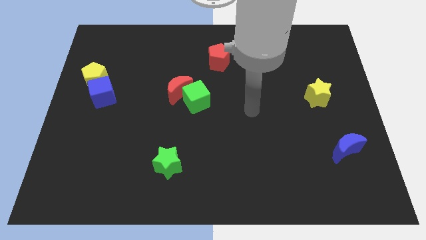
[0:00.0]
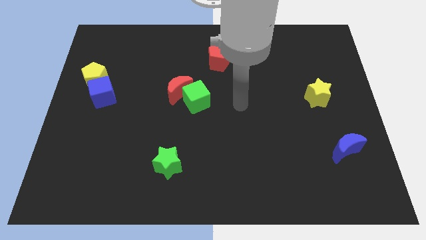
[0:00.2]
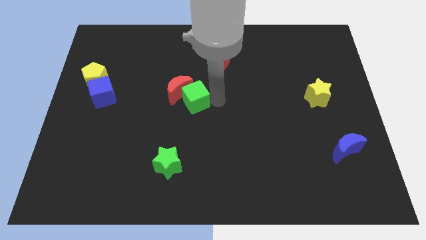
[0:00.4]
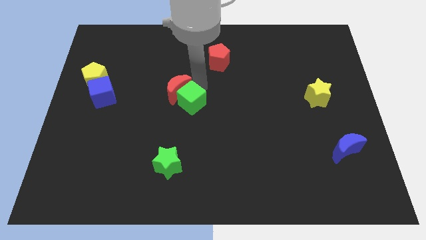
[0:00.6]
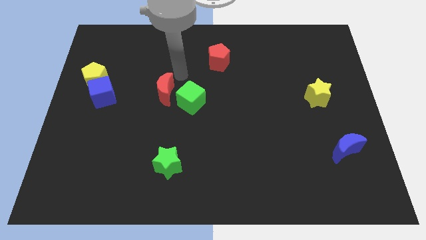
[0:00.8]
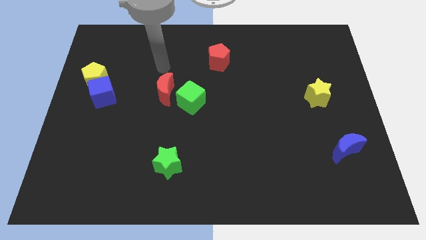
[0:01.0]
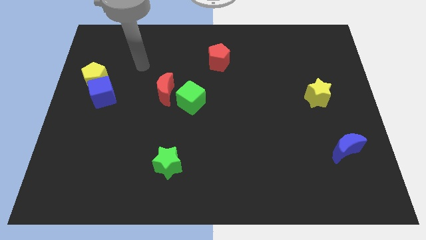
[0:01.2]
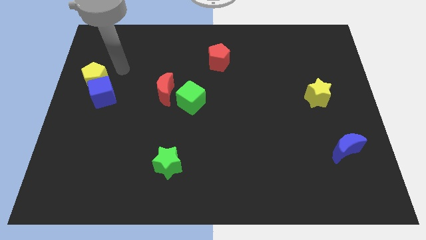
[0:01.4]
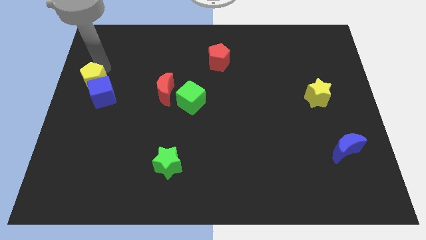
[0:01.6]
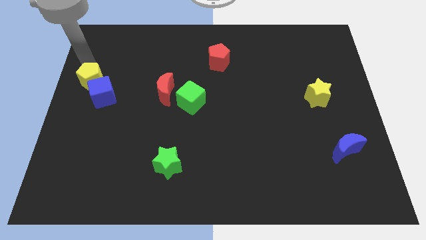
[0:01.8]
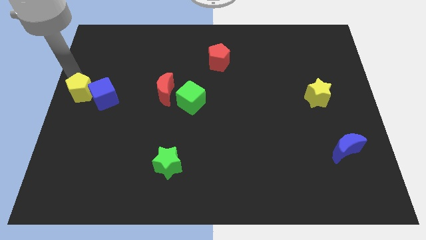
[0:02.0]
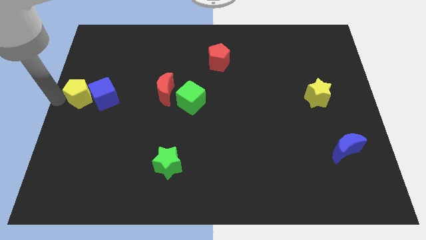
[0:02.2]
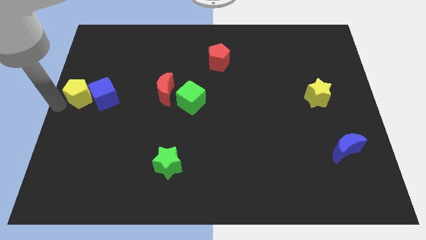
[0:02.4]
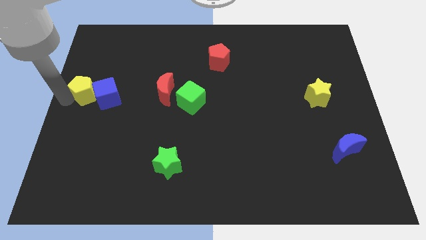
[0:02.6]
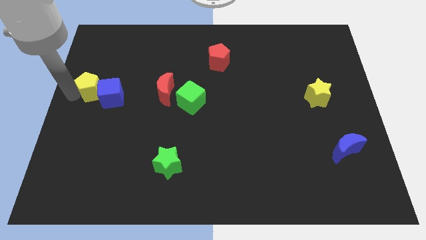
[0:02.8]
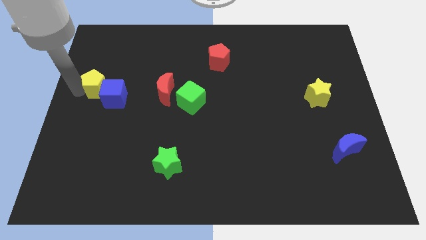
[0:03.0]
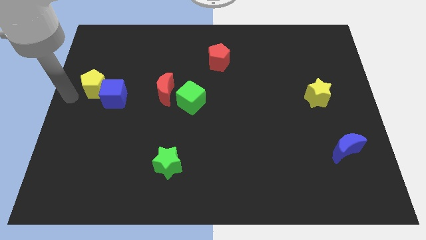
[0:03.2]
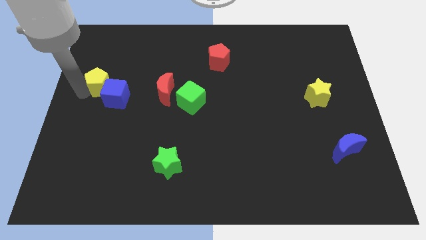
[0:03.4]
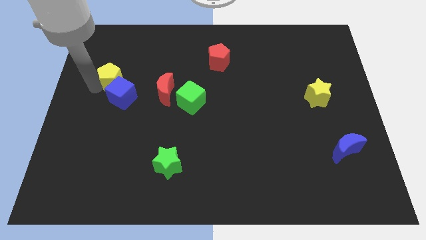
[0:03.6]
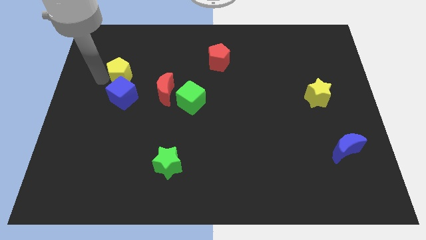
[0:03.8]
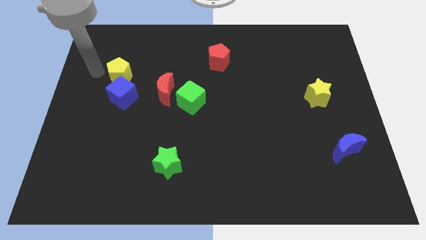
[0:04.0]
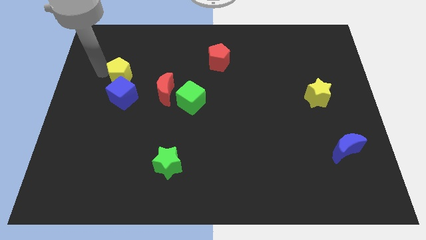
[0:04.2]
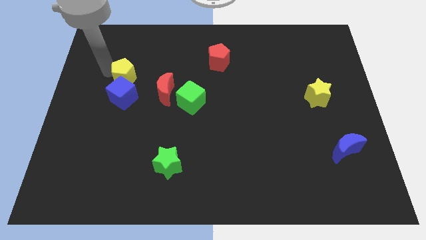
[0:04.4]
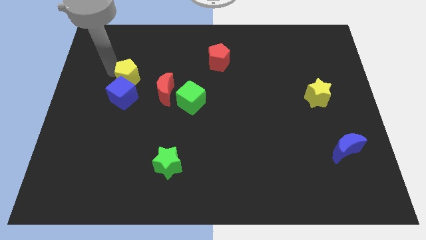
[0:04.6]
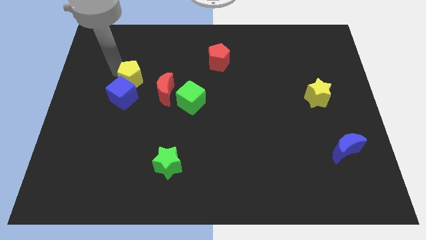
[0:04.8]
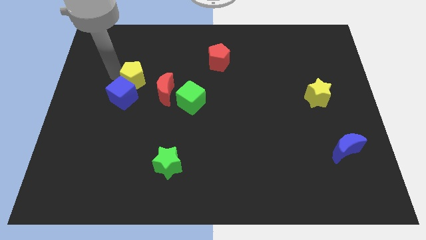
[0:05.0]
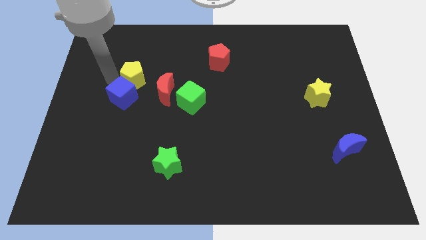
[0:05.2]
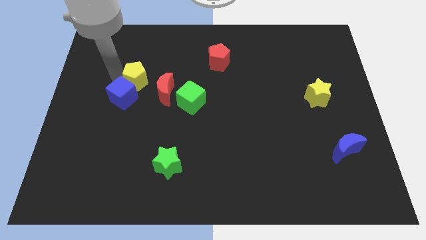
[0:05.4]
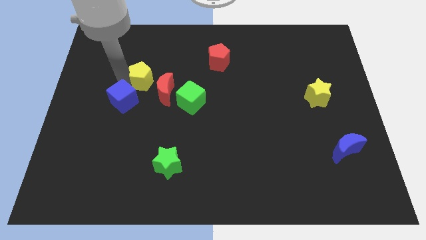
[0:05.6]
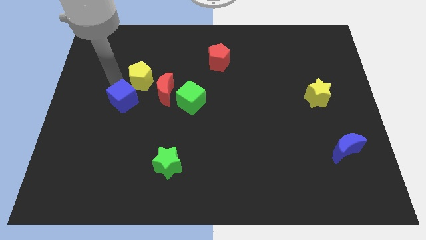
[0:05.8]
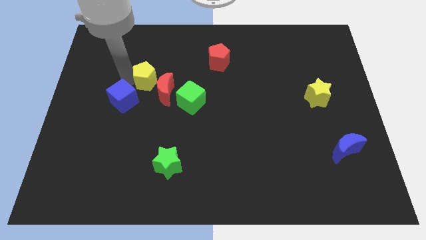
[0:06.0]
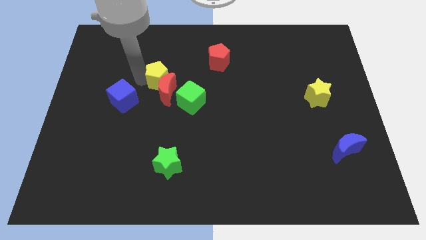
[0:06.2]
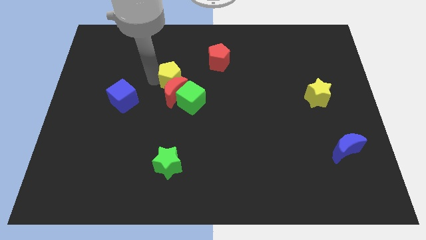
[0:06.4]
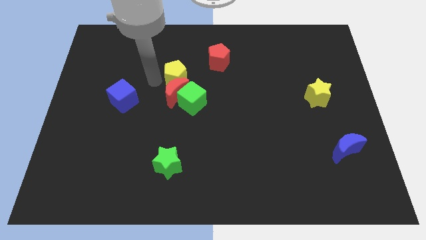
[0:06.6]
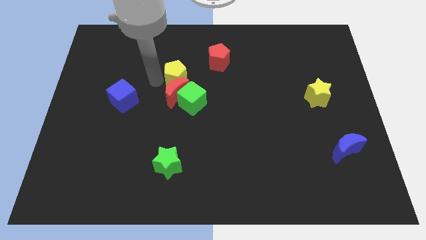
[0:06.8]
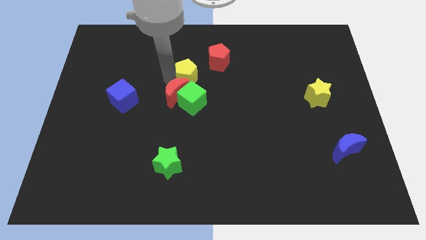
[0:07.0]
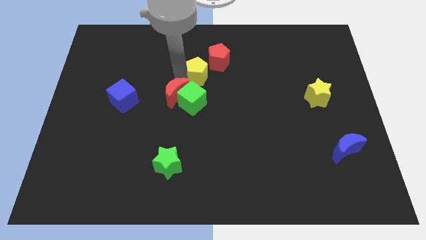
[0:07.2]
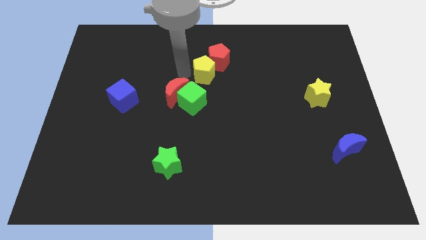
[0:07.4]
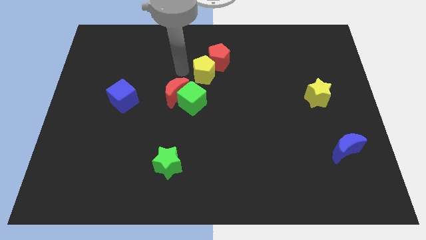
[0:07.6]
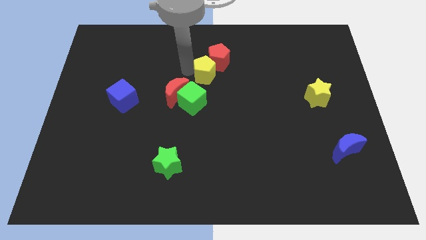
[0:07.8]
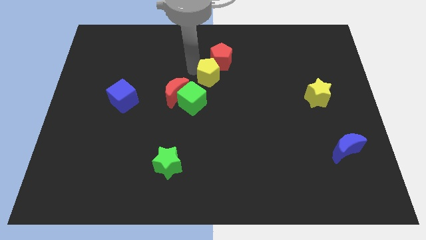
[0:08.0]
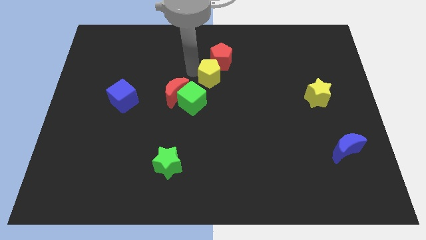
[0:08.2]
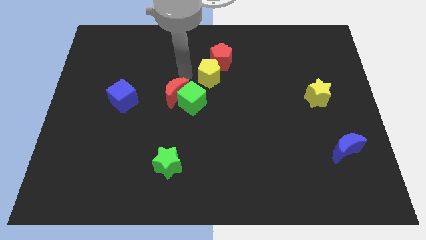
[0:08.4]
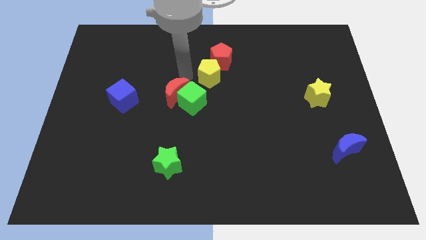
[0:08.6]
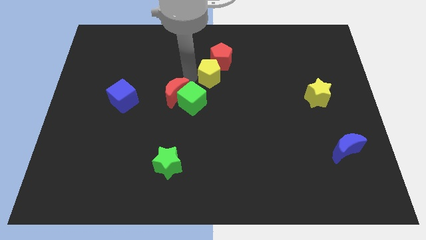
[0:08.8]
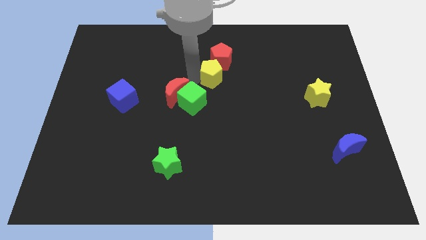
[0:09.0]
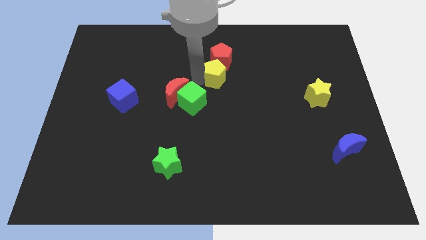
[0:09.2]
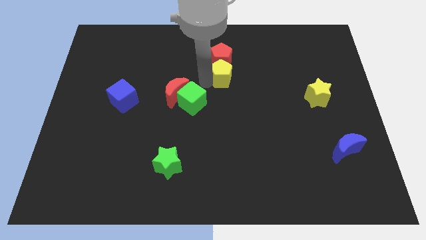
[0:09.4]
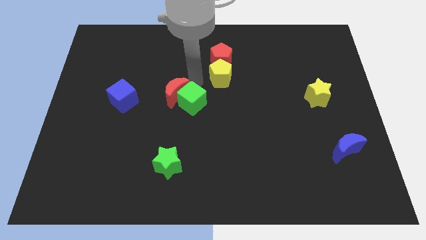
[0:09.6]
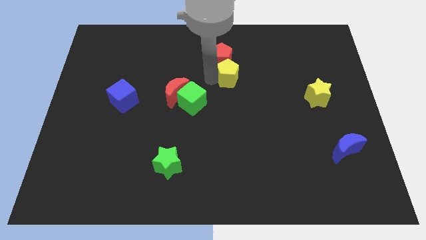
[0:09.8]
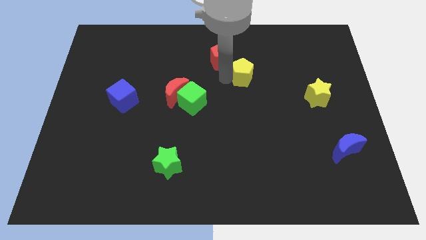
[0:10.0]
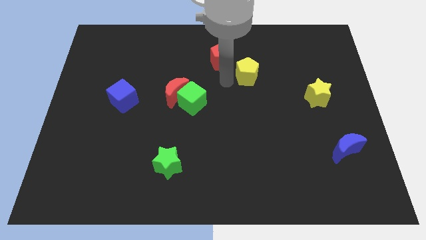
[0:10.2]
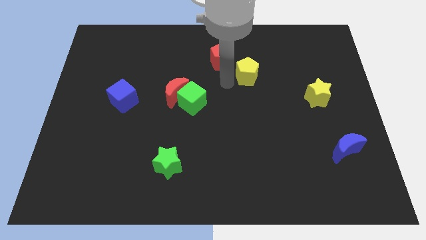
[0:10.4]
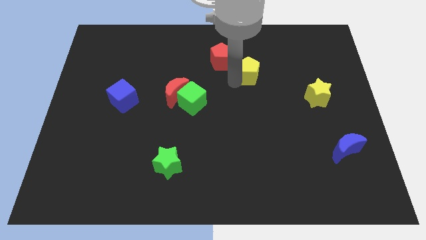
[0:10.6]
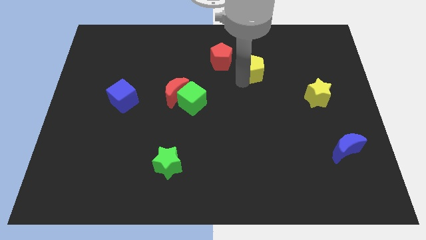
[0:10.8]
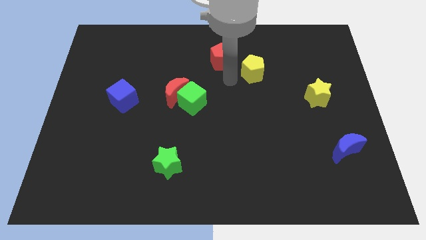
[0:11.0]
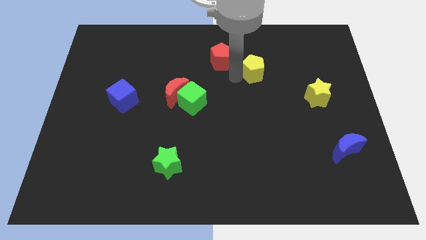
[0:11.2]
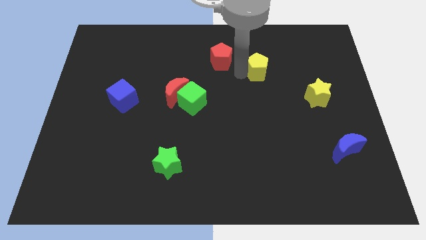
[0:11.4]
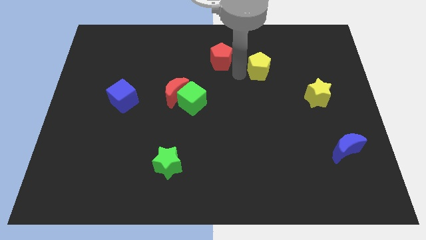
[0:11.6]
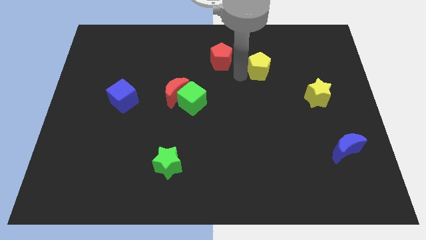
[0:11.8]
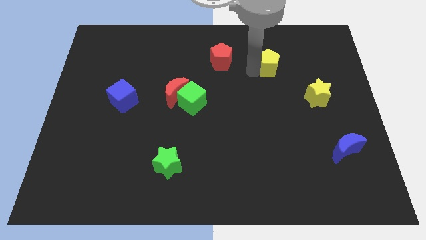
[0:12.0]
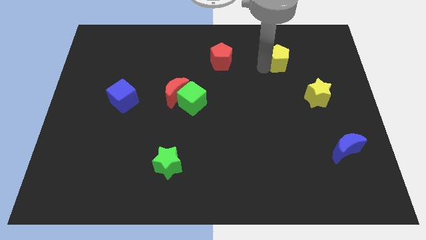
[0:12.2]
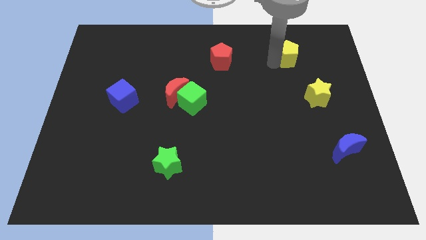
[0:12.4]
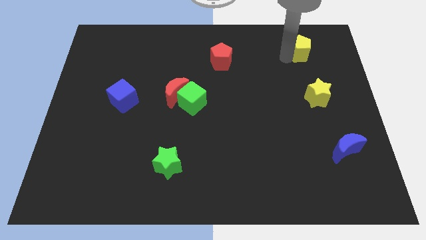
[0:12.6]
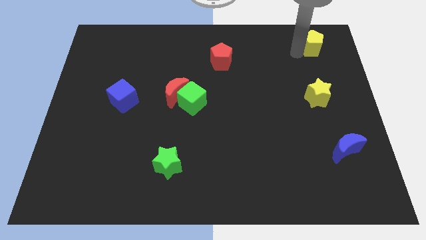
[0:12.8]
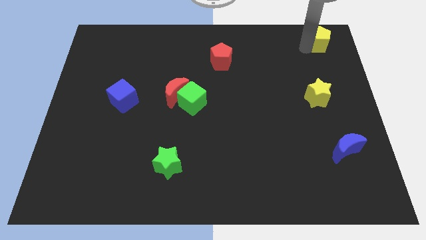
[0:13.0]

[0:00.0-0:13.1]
slide the yellow pentagon to the top right corner

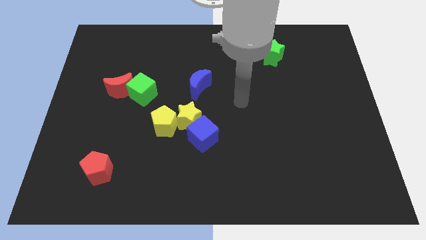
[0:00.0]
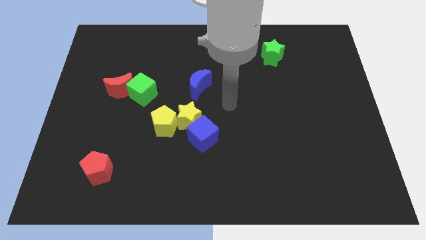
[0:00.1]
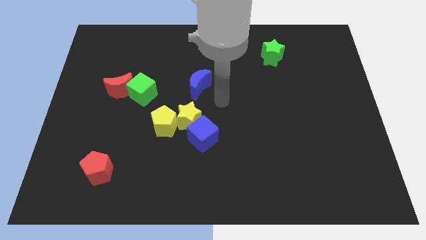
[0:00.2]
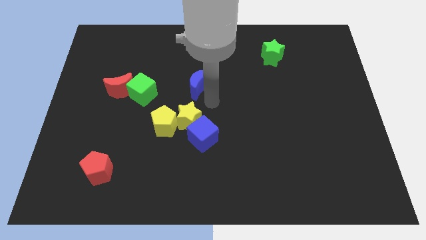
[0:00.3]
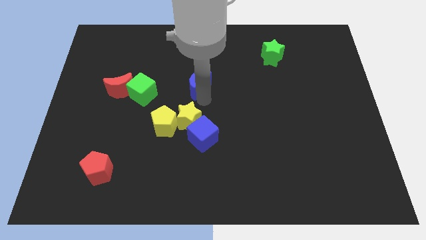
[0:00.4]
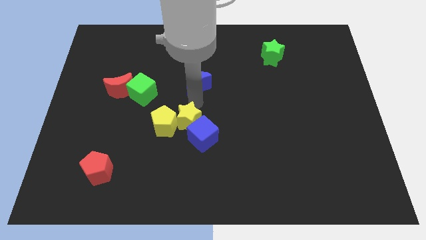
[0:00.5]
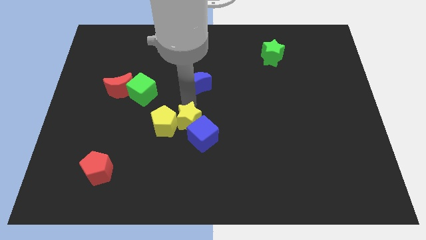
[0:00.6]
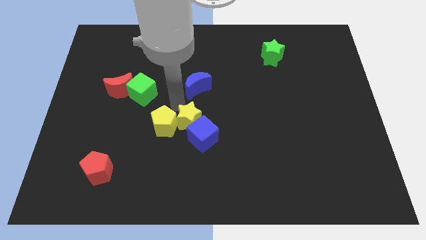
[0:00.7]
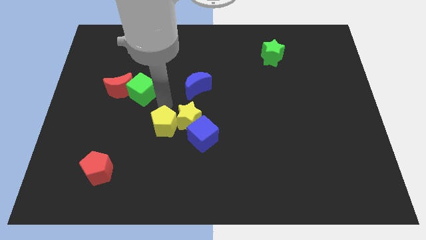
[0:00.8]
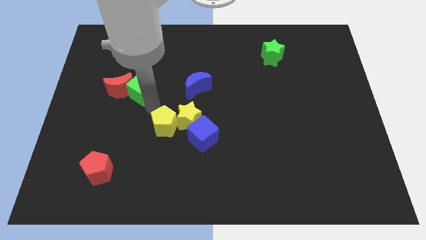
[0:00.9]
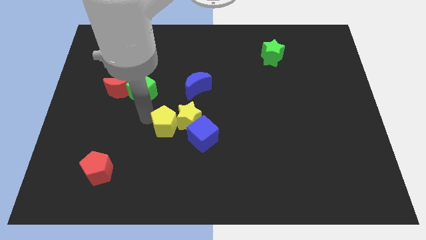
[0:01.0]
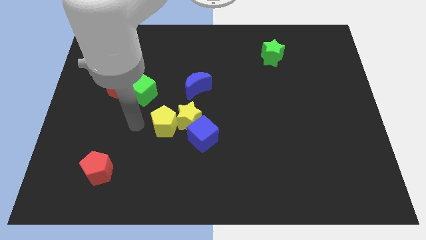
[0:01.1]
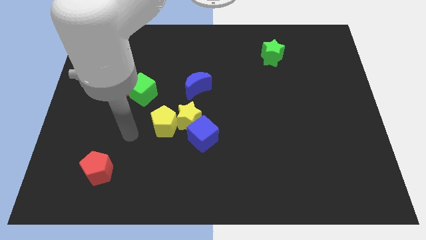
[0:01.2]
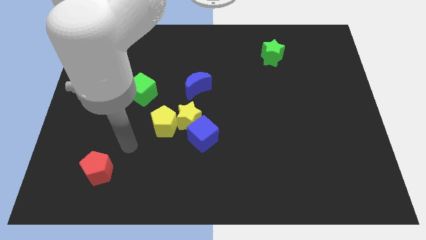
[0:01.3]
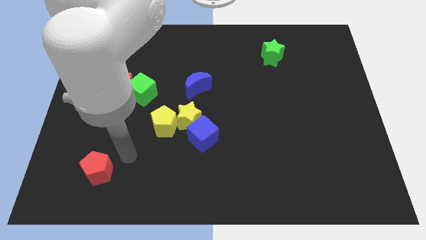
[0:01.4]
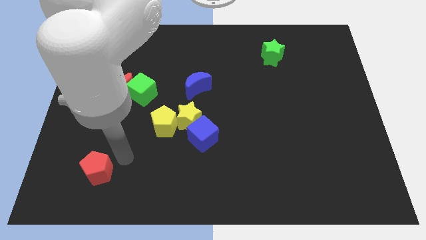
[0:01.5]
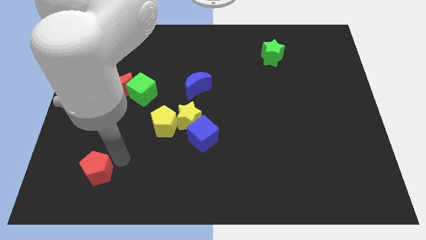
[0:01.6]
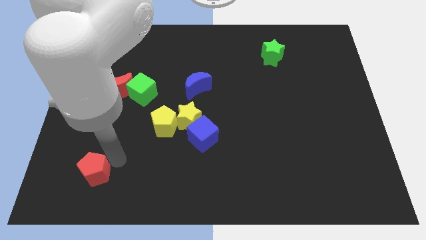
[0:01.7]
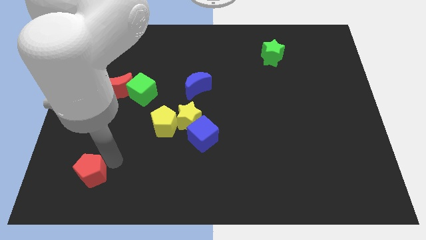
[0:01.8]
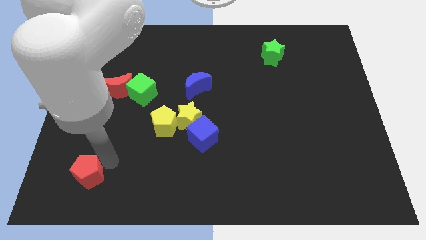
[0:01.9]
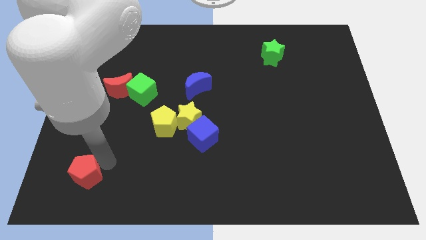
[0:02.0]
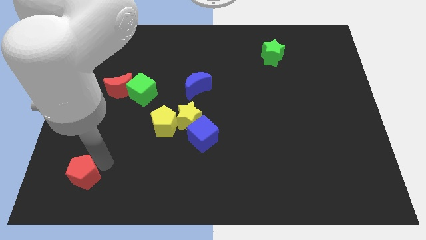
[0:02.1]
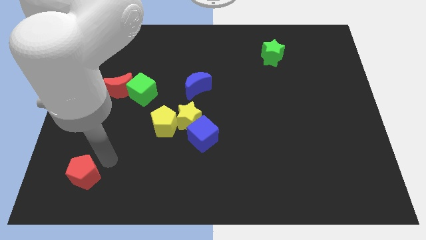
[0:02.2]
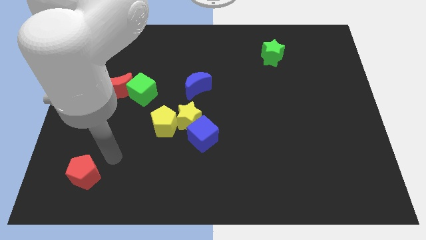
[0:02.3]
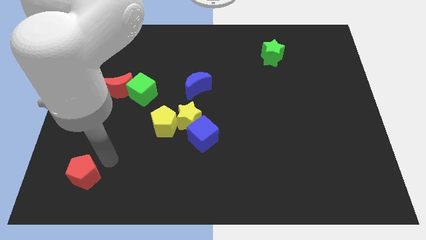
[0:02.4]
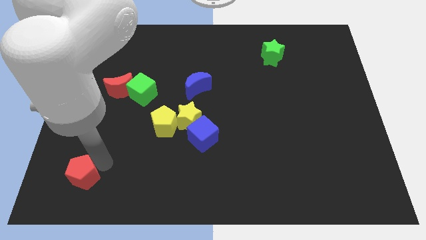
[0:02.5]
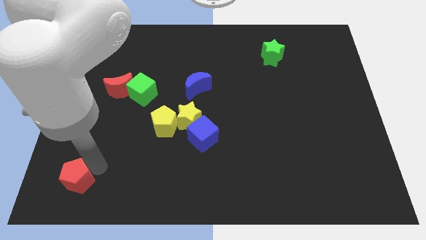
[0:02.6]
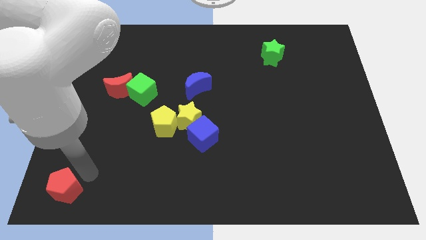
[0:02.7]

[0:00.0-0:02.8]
put the red pentagon to the bottom left of the board
